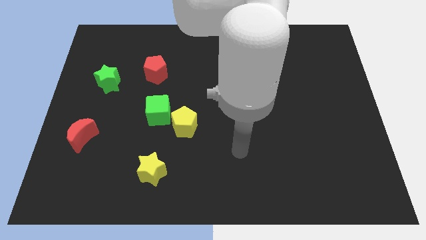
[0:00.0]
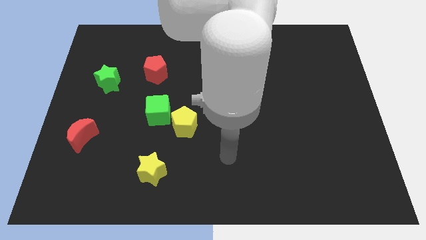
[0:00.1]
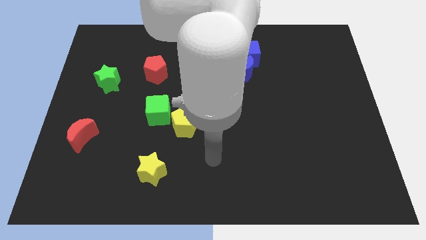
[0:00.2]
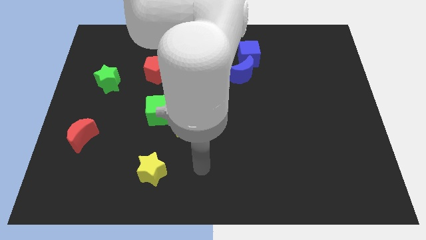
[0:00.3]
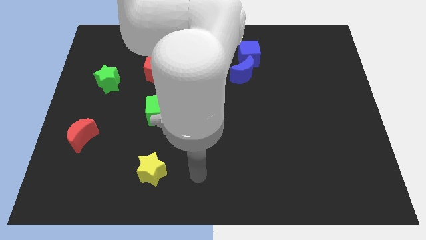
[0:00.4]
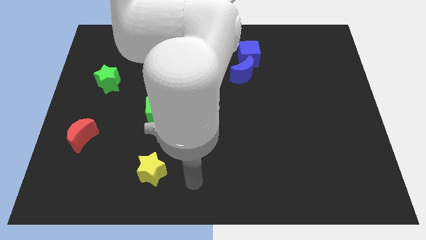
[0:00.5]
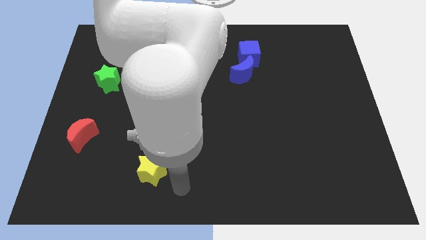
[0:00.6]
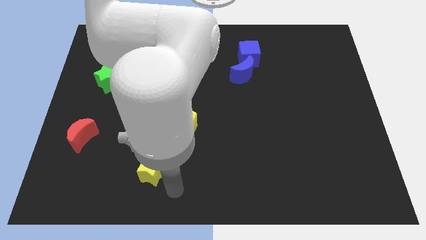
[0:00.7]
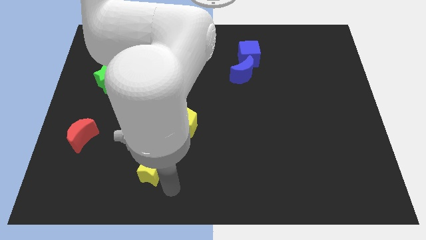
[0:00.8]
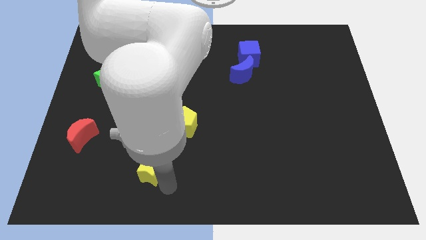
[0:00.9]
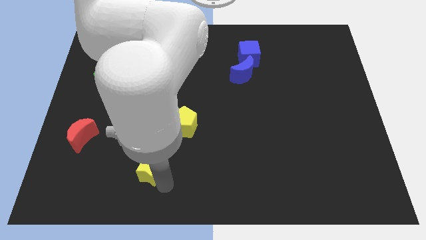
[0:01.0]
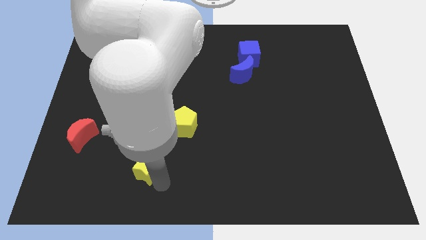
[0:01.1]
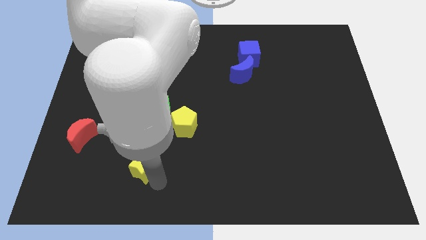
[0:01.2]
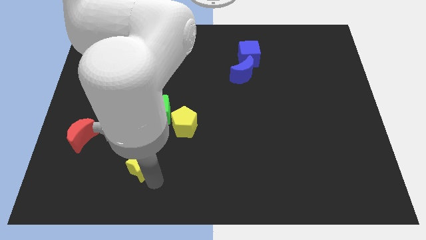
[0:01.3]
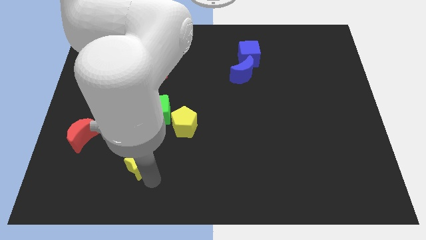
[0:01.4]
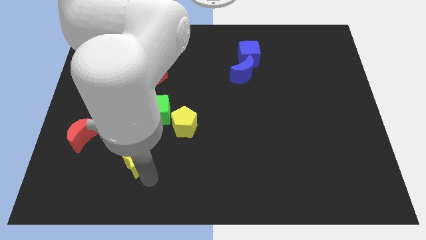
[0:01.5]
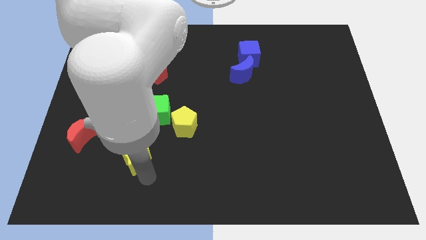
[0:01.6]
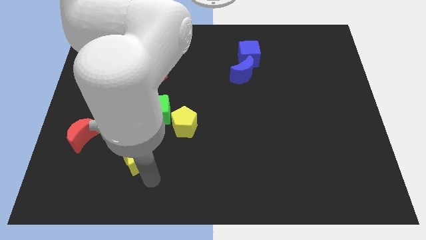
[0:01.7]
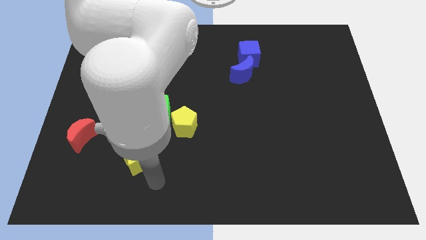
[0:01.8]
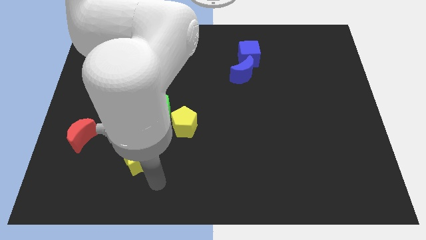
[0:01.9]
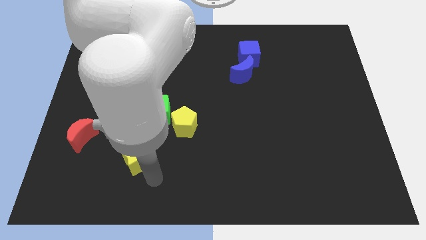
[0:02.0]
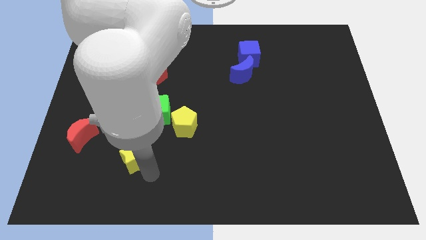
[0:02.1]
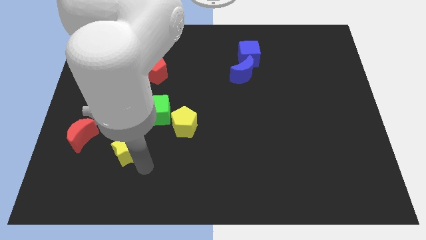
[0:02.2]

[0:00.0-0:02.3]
move the yellow star up and left a little

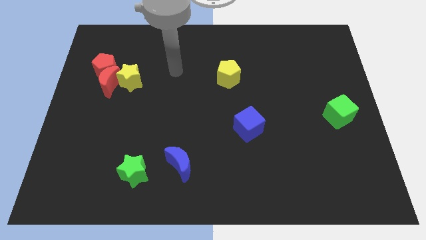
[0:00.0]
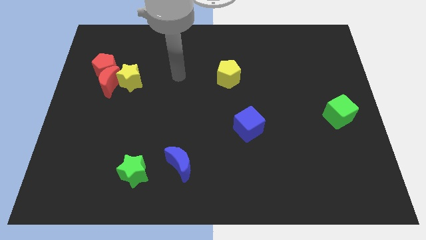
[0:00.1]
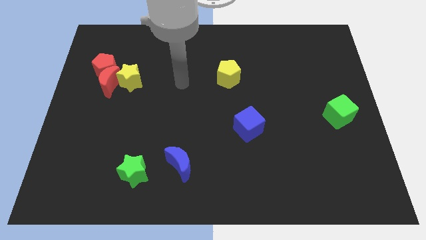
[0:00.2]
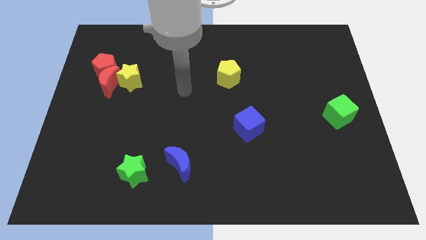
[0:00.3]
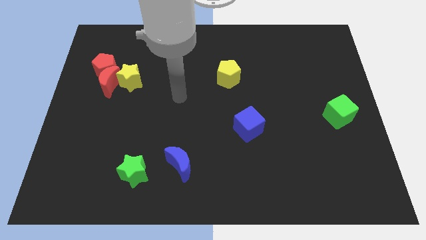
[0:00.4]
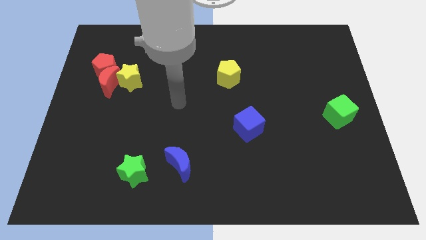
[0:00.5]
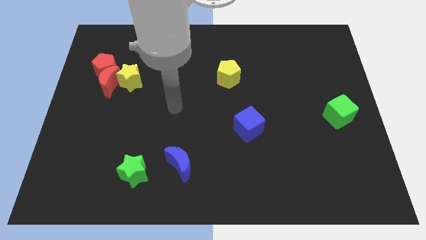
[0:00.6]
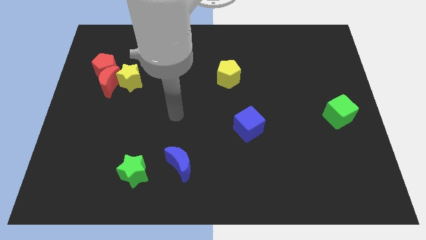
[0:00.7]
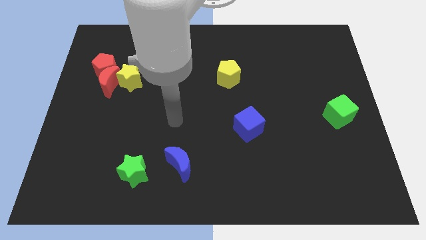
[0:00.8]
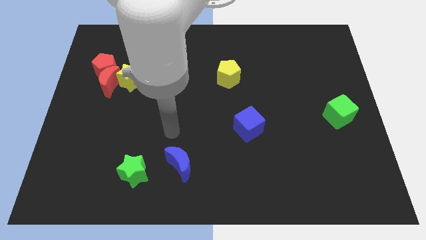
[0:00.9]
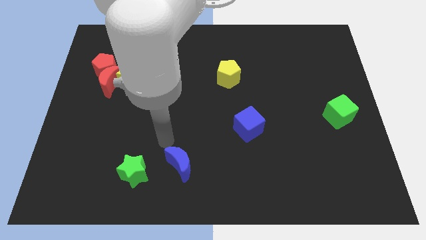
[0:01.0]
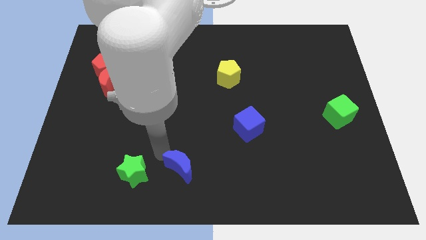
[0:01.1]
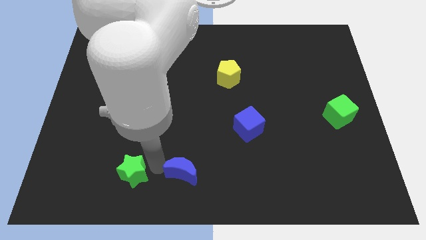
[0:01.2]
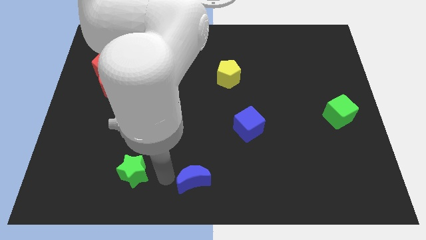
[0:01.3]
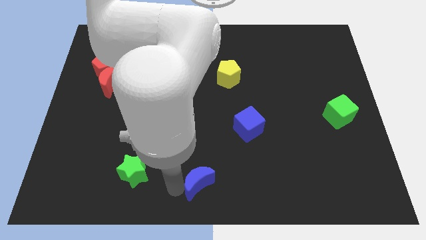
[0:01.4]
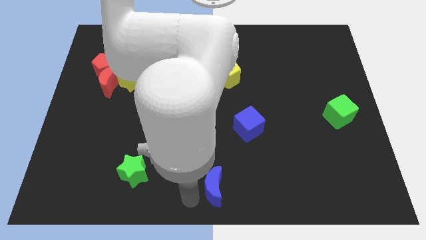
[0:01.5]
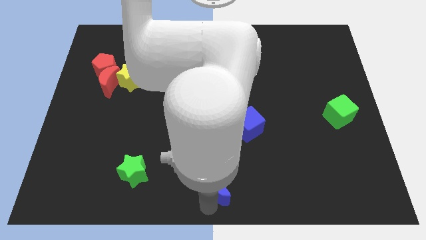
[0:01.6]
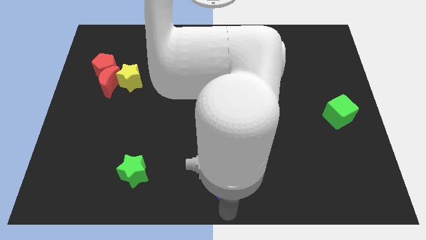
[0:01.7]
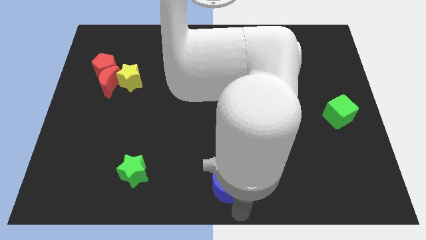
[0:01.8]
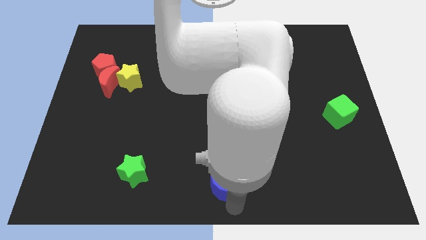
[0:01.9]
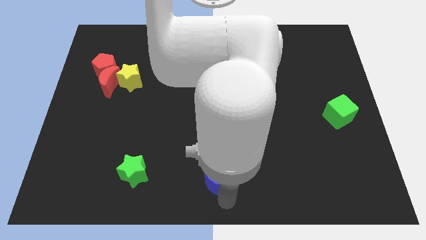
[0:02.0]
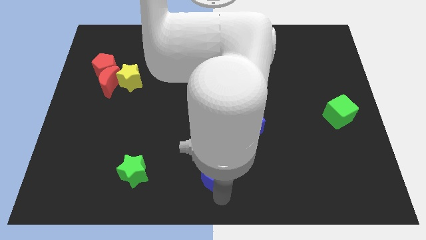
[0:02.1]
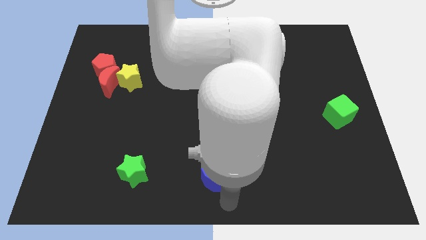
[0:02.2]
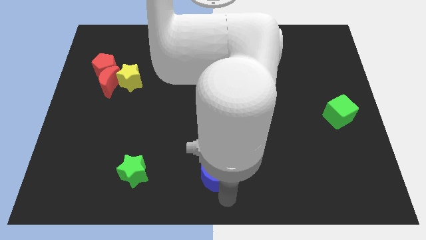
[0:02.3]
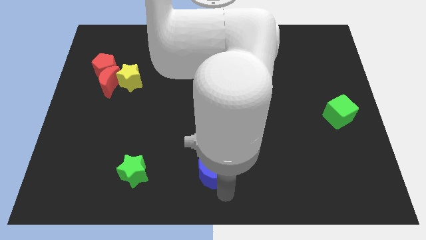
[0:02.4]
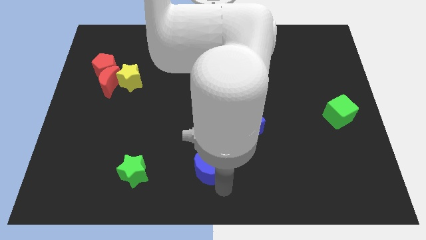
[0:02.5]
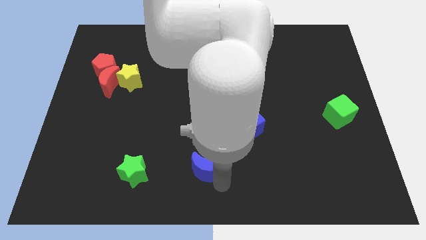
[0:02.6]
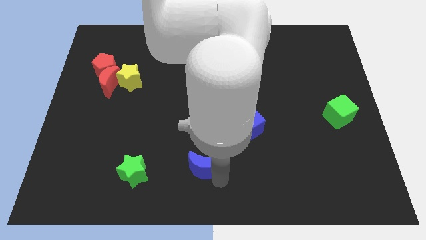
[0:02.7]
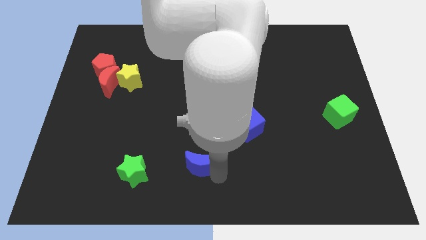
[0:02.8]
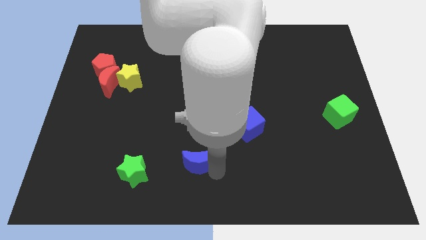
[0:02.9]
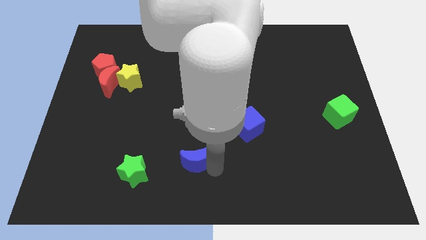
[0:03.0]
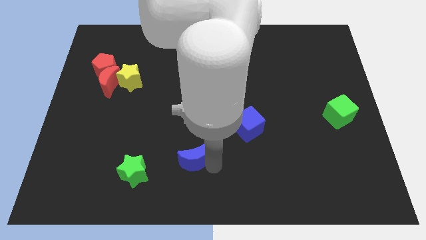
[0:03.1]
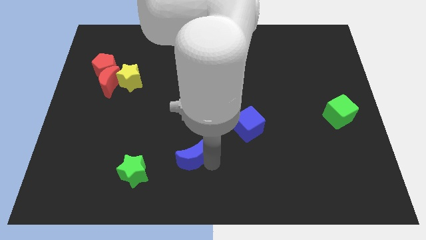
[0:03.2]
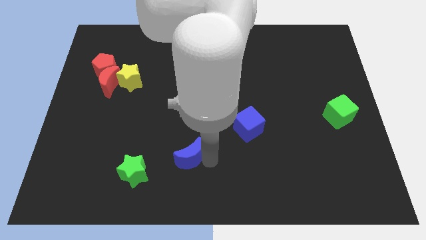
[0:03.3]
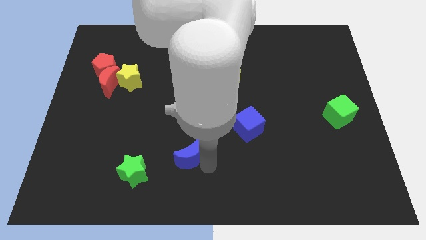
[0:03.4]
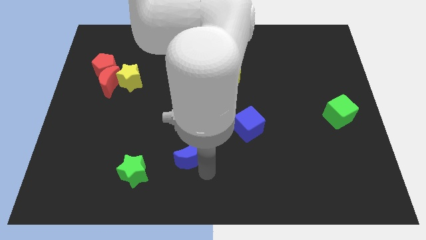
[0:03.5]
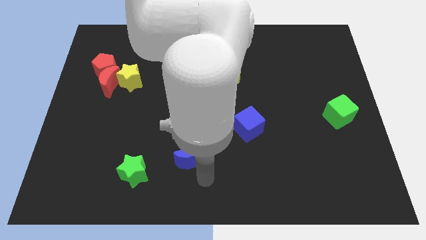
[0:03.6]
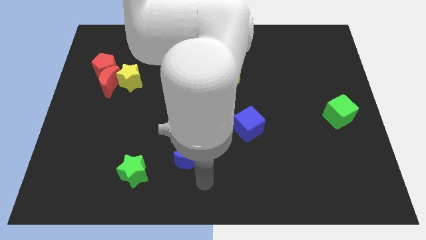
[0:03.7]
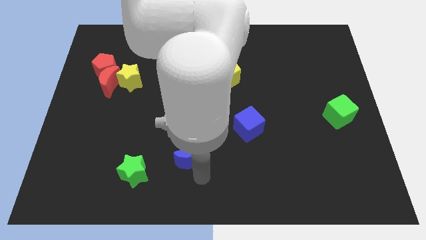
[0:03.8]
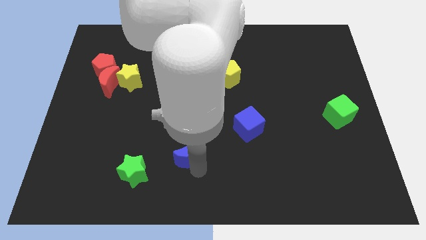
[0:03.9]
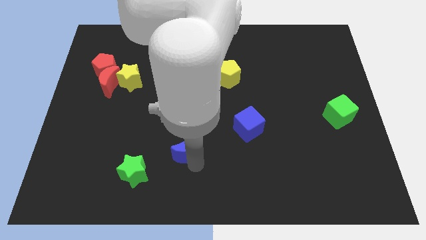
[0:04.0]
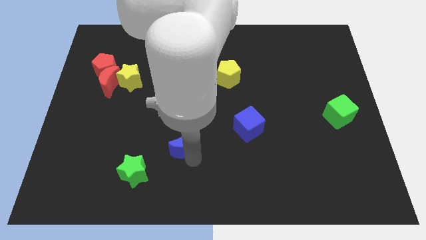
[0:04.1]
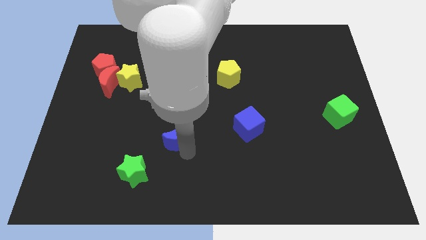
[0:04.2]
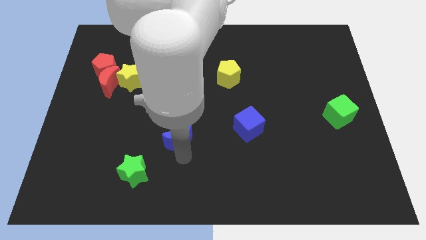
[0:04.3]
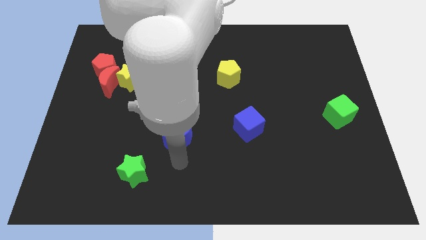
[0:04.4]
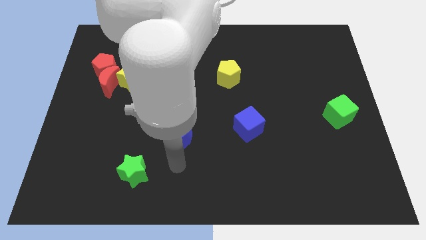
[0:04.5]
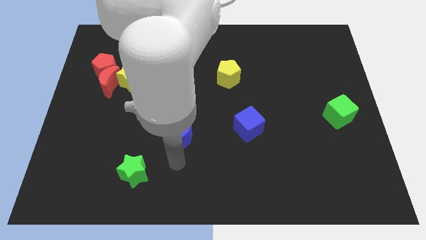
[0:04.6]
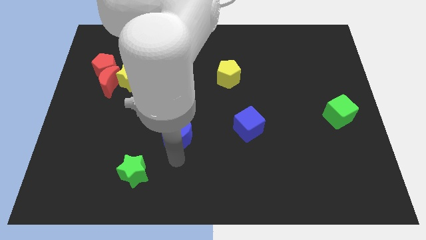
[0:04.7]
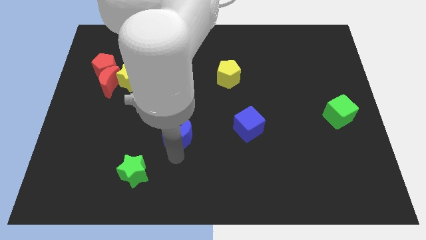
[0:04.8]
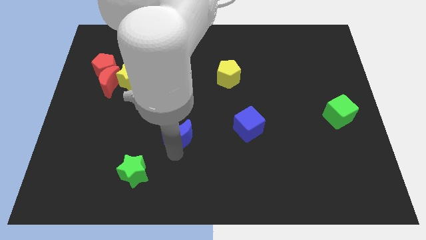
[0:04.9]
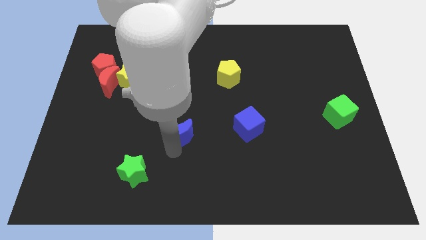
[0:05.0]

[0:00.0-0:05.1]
push the blue moon a little bit upwards

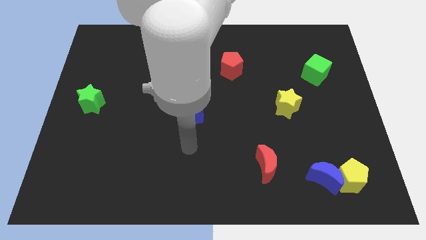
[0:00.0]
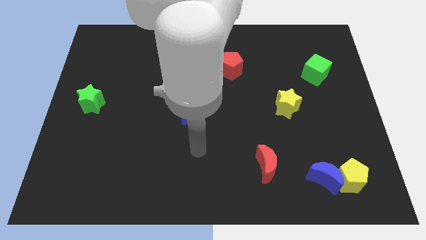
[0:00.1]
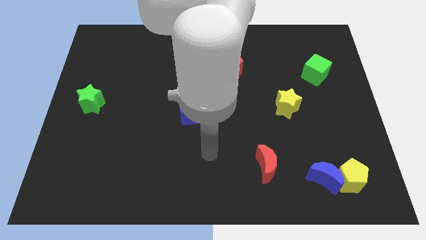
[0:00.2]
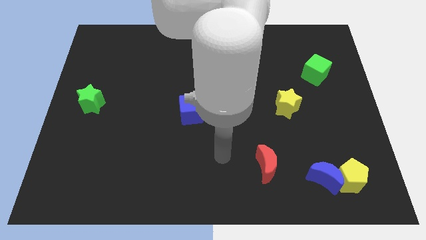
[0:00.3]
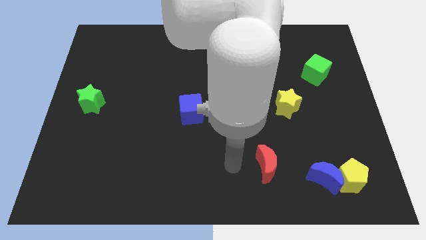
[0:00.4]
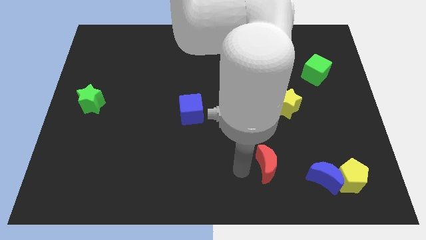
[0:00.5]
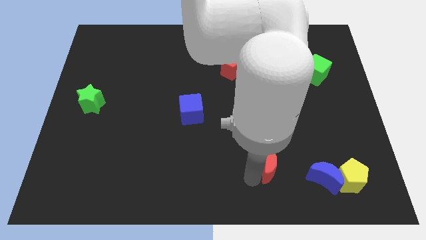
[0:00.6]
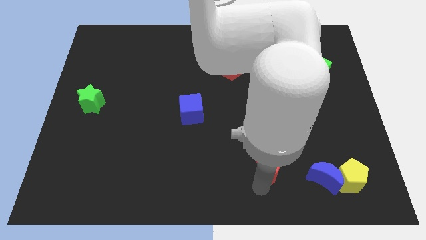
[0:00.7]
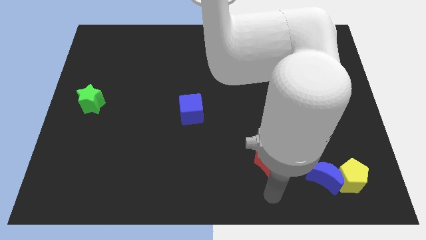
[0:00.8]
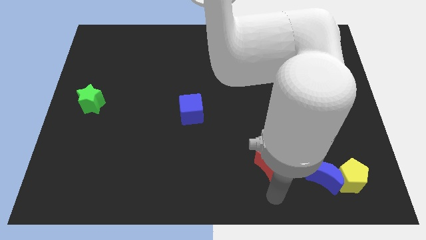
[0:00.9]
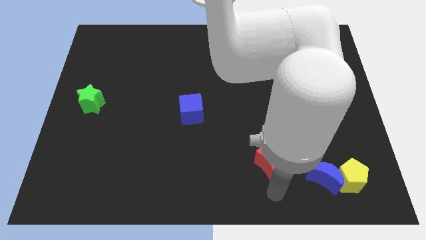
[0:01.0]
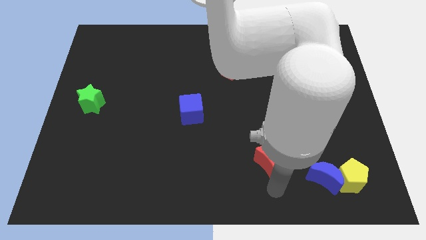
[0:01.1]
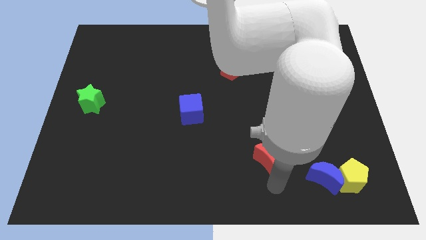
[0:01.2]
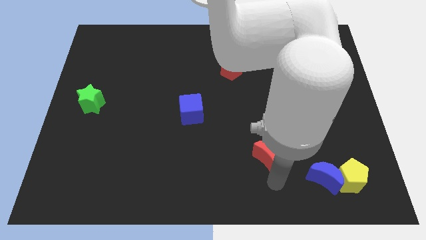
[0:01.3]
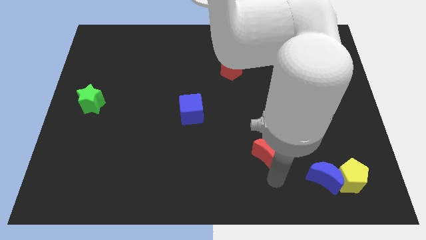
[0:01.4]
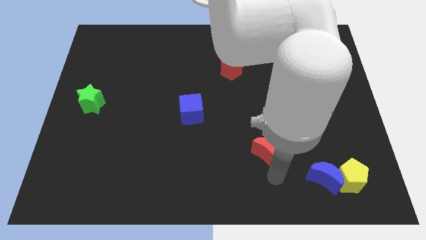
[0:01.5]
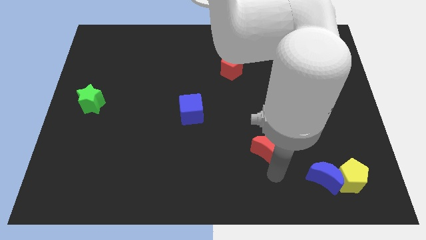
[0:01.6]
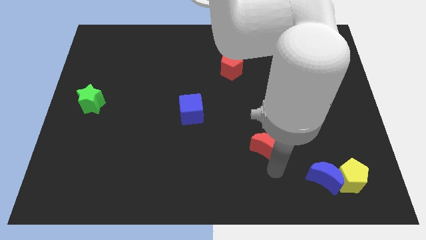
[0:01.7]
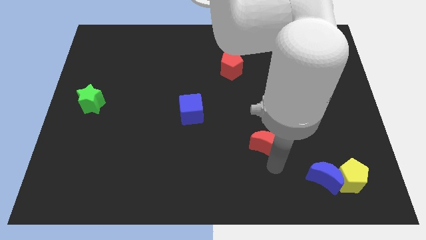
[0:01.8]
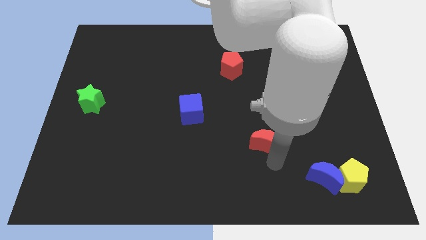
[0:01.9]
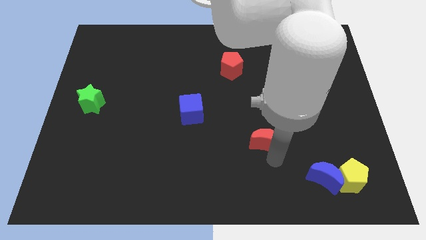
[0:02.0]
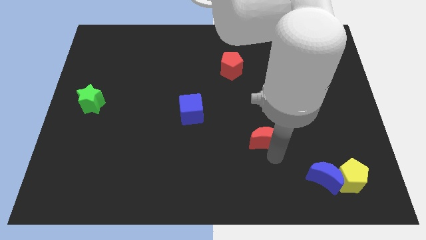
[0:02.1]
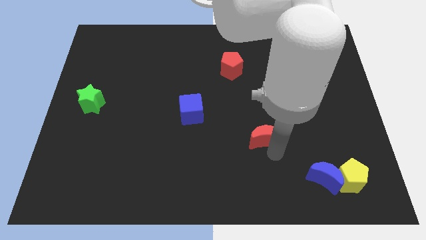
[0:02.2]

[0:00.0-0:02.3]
push the red moon upwards a bit
